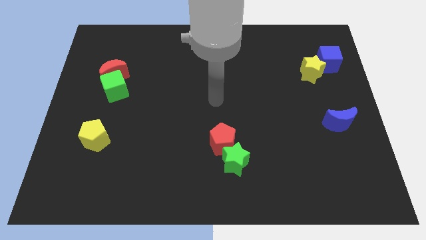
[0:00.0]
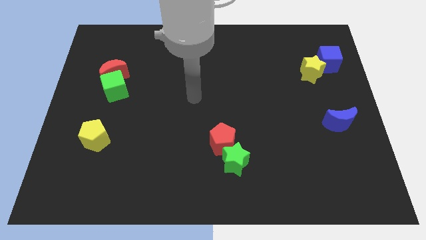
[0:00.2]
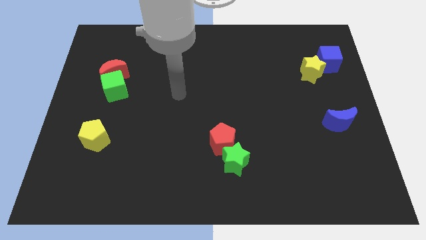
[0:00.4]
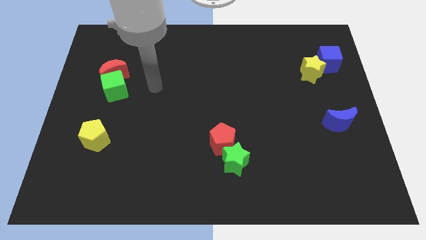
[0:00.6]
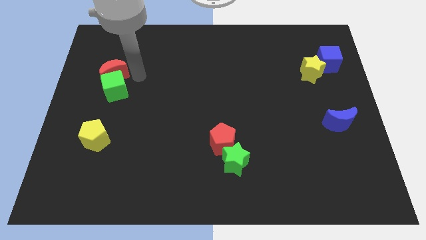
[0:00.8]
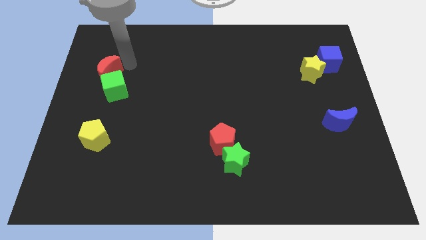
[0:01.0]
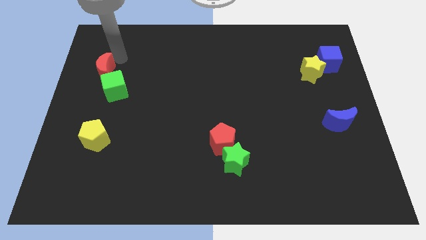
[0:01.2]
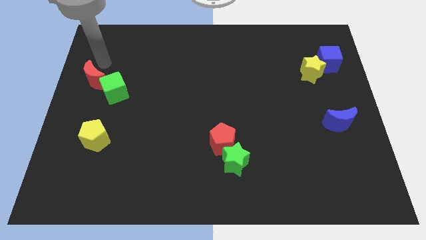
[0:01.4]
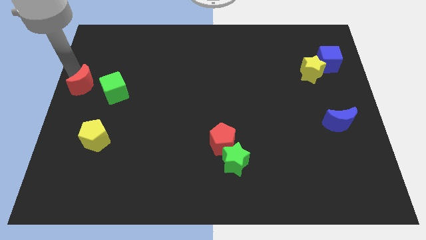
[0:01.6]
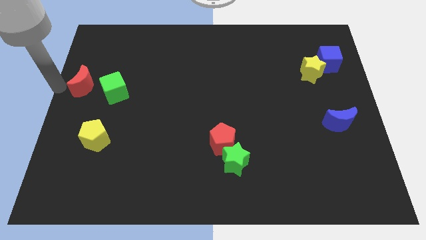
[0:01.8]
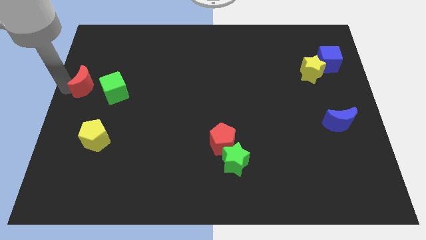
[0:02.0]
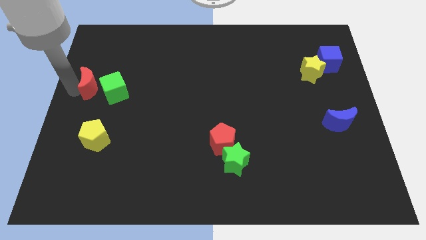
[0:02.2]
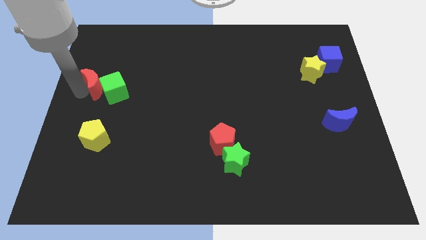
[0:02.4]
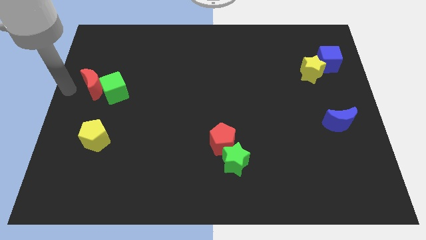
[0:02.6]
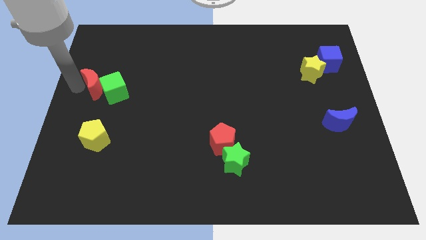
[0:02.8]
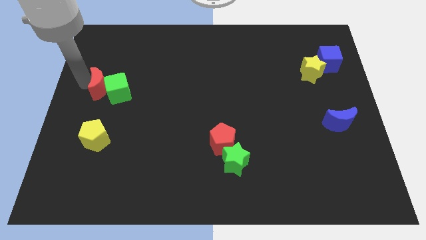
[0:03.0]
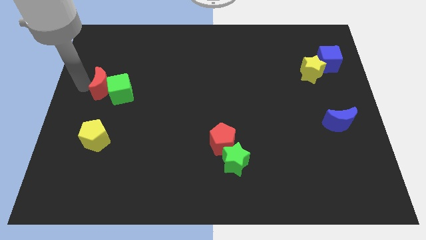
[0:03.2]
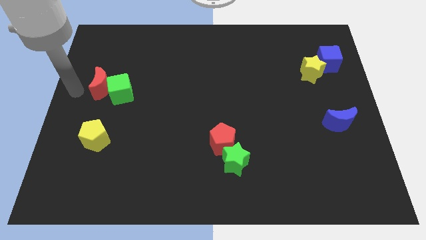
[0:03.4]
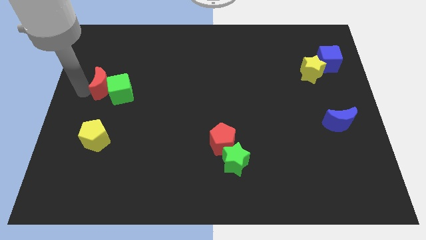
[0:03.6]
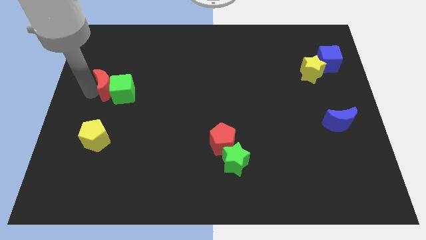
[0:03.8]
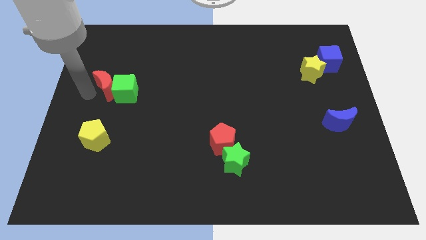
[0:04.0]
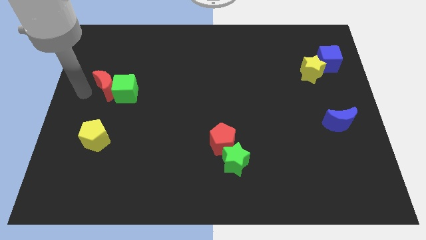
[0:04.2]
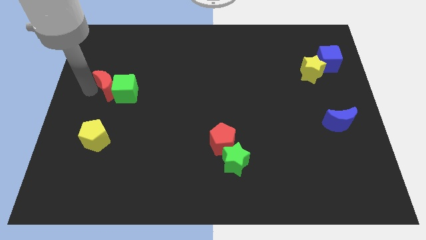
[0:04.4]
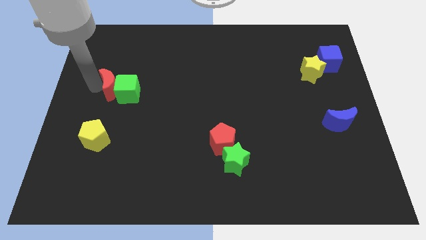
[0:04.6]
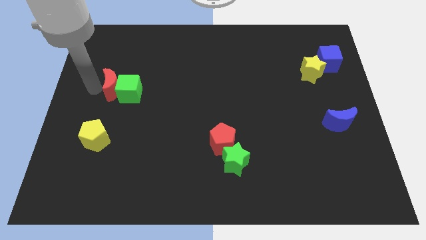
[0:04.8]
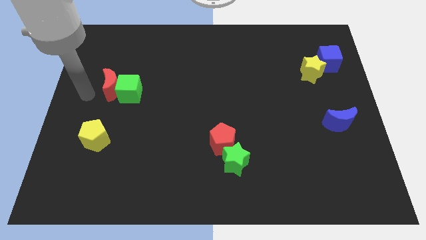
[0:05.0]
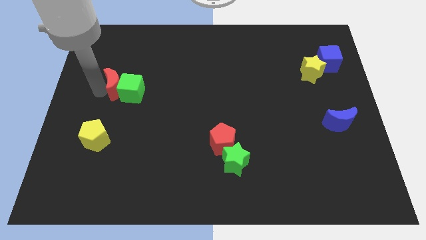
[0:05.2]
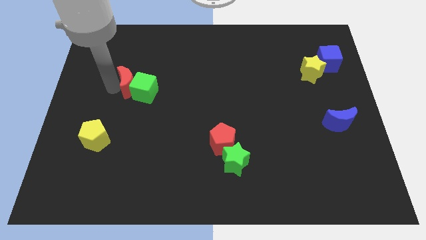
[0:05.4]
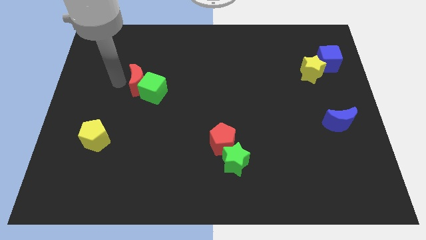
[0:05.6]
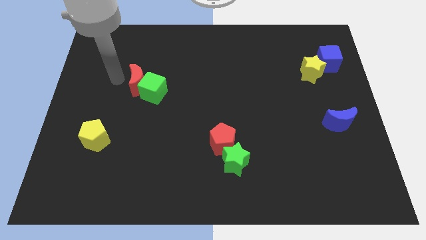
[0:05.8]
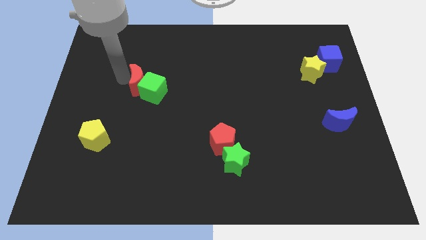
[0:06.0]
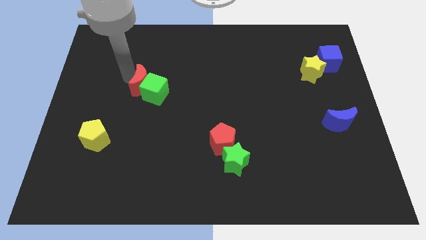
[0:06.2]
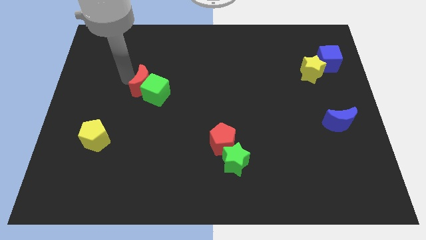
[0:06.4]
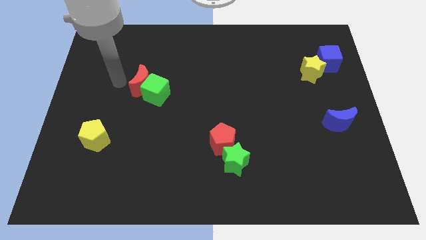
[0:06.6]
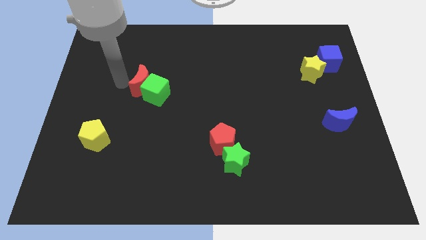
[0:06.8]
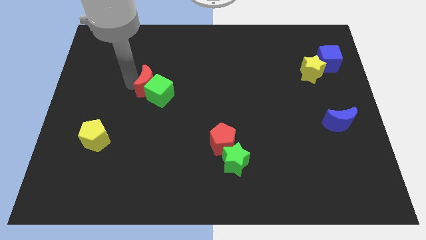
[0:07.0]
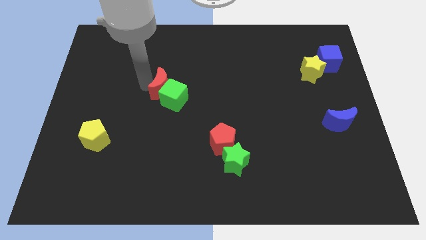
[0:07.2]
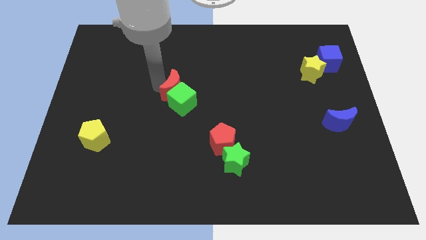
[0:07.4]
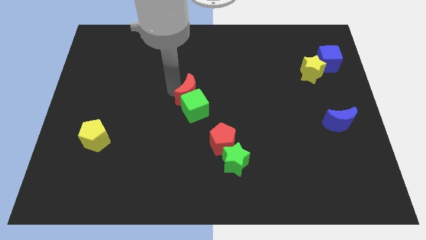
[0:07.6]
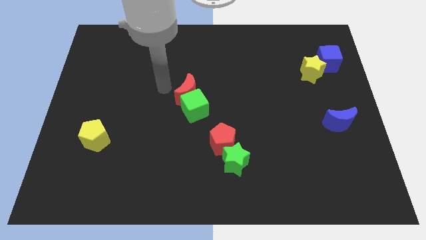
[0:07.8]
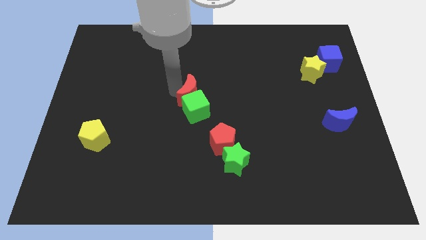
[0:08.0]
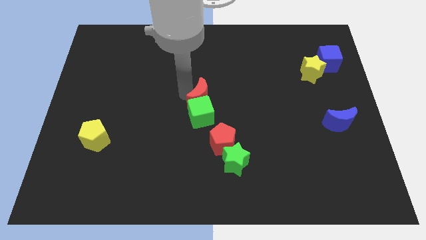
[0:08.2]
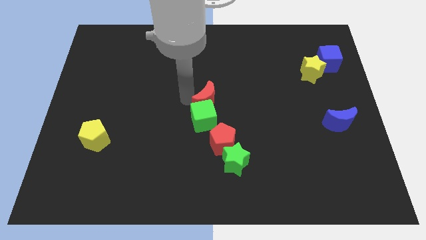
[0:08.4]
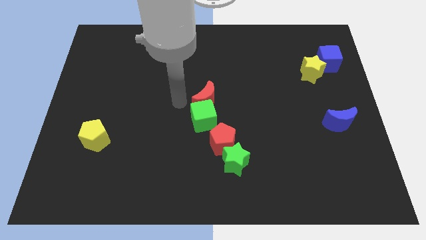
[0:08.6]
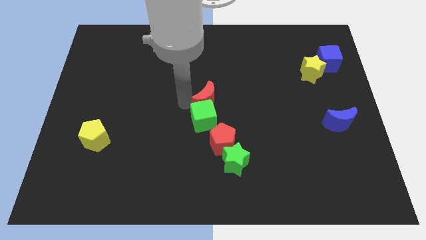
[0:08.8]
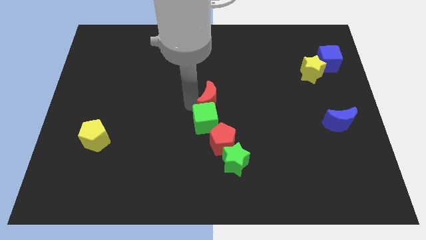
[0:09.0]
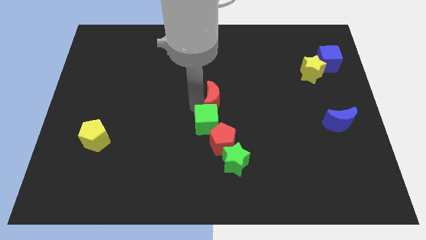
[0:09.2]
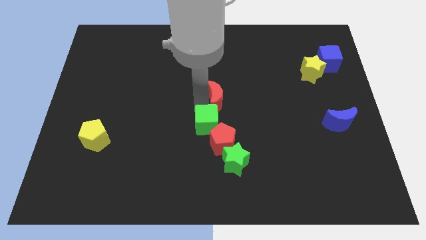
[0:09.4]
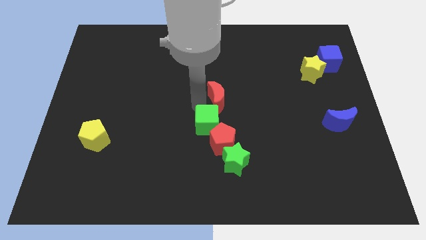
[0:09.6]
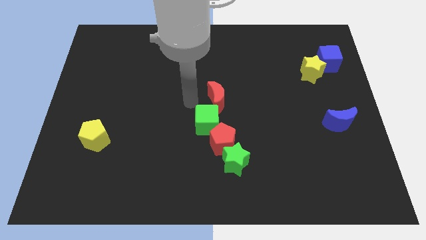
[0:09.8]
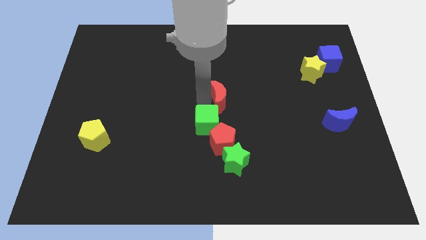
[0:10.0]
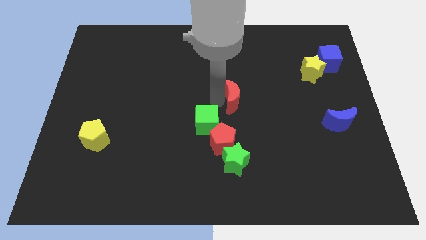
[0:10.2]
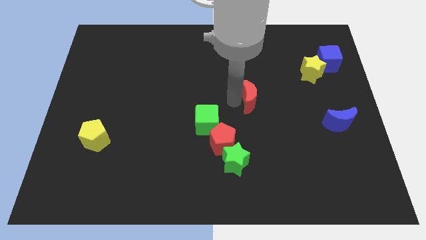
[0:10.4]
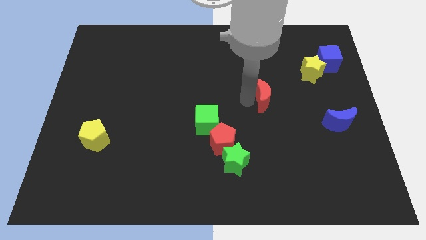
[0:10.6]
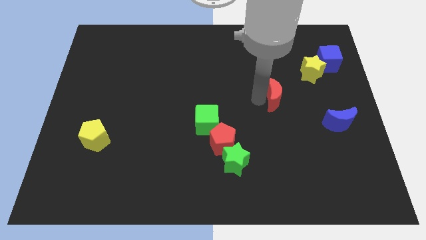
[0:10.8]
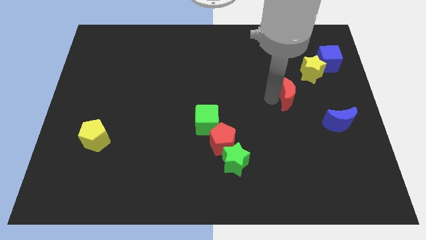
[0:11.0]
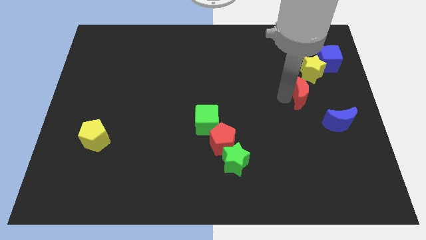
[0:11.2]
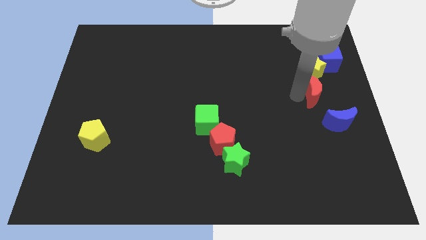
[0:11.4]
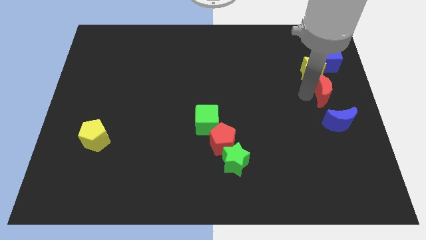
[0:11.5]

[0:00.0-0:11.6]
move the red moon to the right side

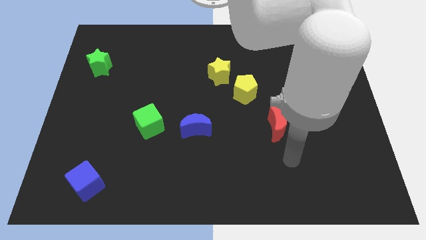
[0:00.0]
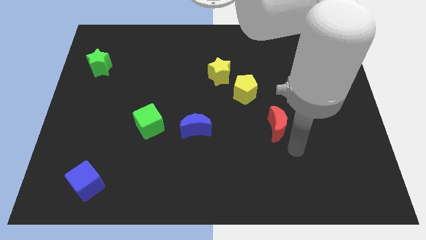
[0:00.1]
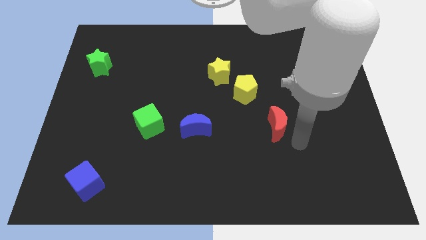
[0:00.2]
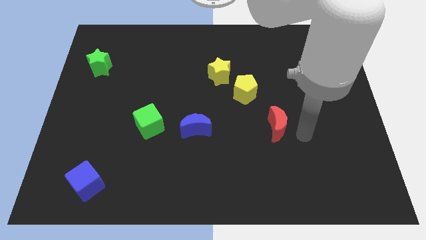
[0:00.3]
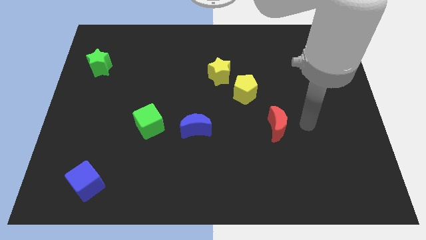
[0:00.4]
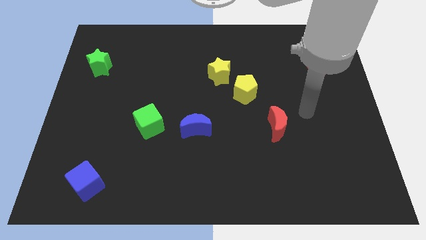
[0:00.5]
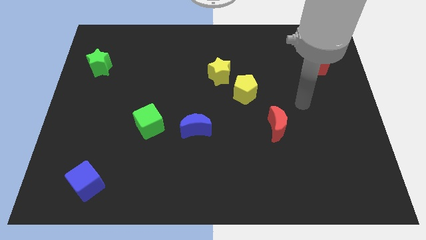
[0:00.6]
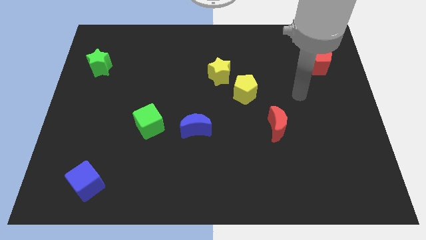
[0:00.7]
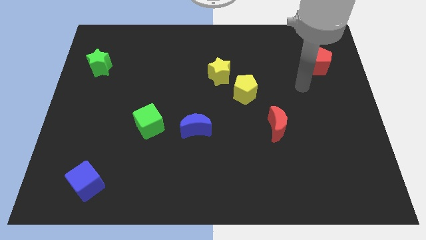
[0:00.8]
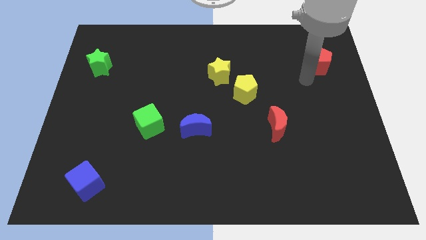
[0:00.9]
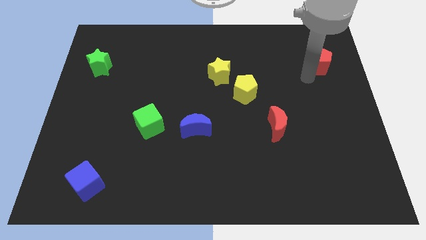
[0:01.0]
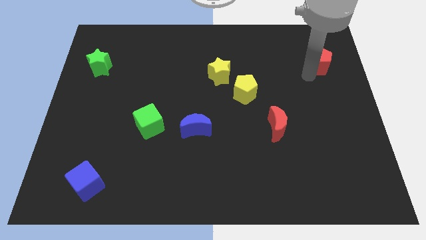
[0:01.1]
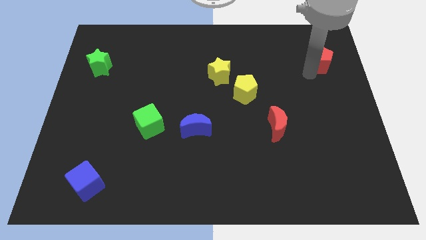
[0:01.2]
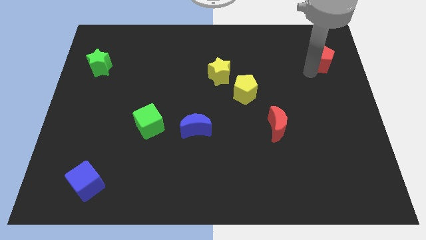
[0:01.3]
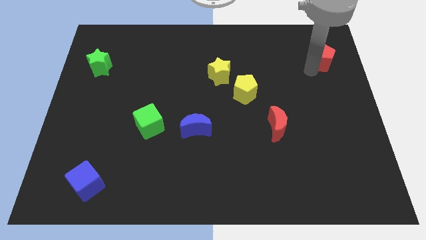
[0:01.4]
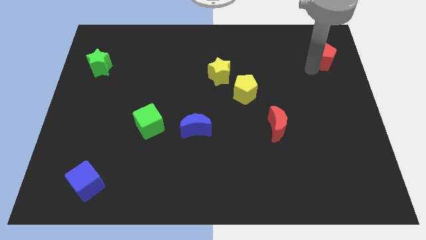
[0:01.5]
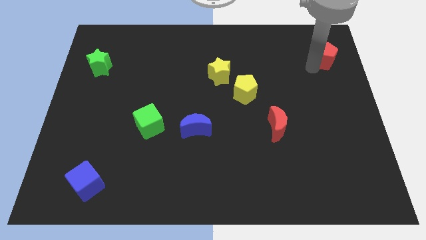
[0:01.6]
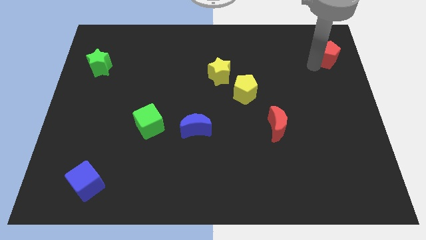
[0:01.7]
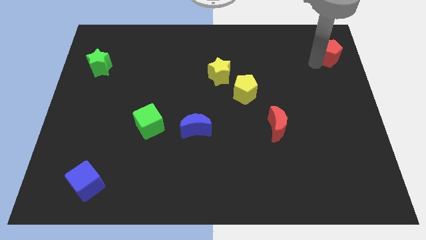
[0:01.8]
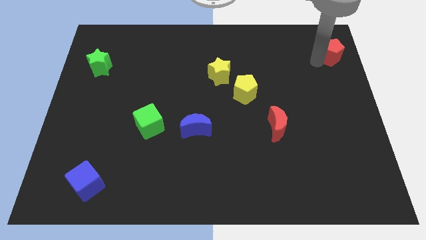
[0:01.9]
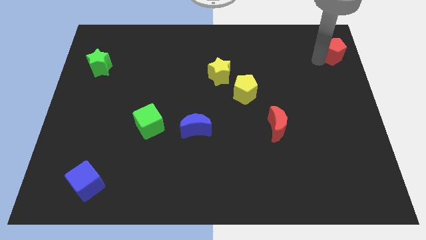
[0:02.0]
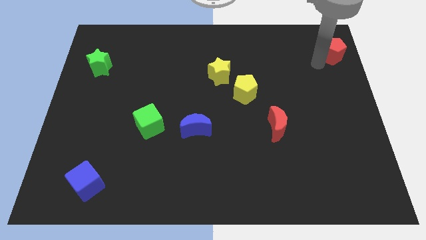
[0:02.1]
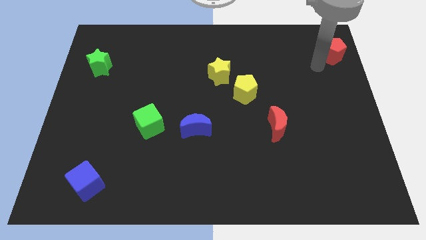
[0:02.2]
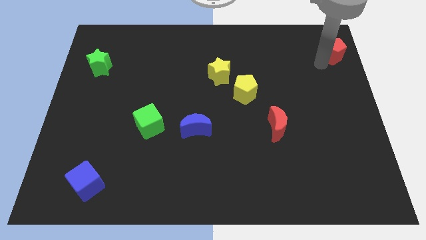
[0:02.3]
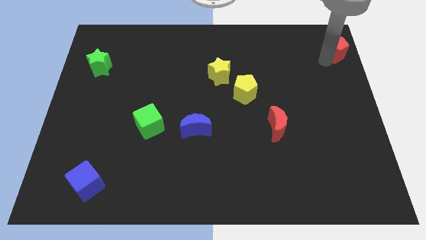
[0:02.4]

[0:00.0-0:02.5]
slide the red pentagon to the top right corner
